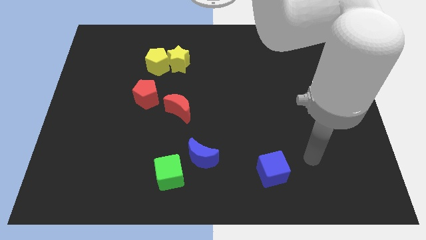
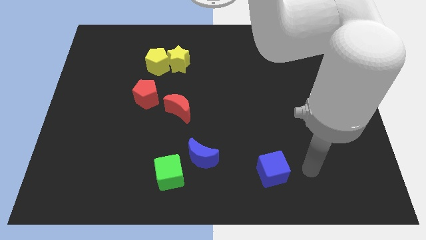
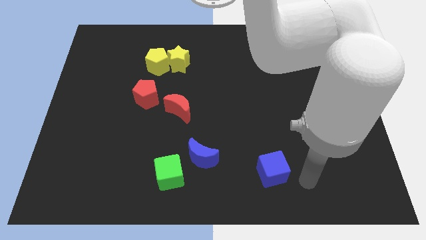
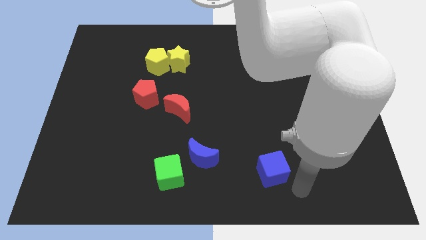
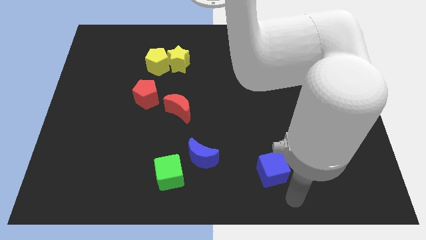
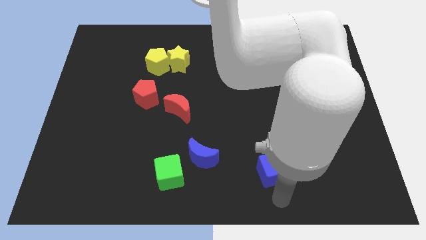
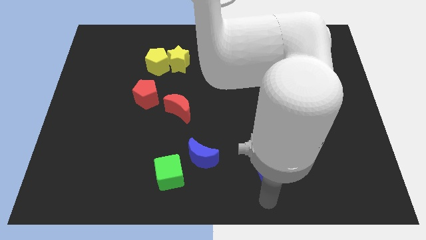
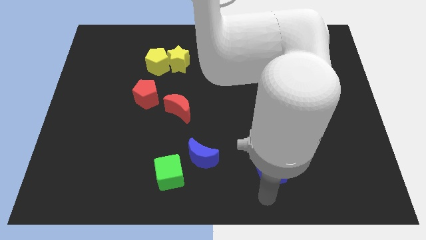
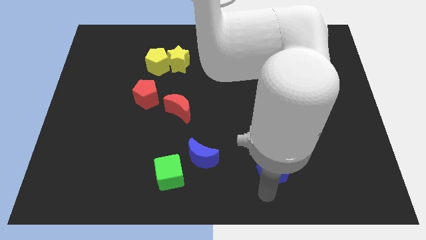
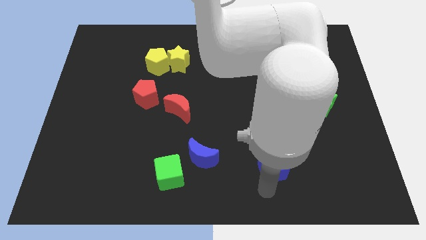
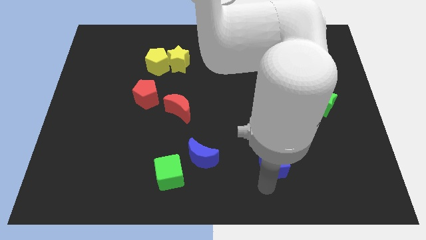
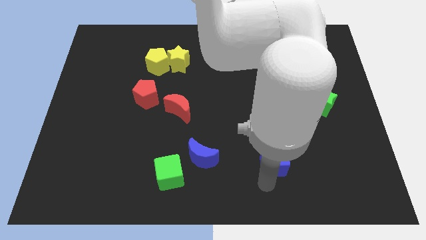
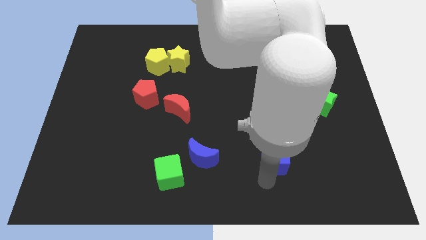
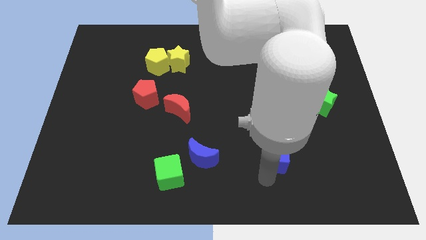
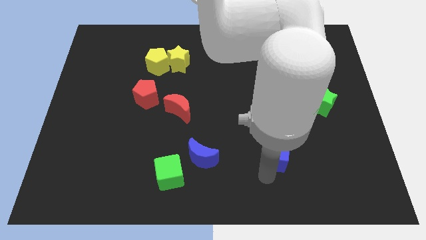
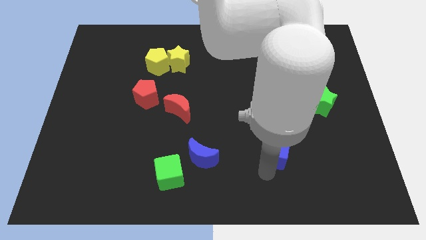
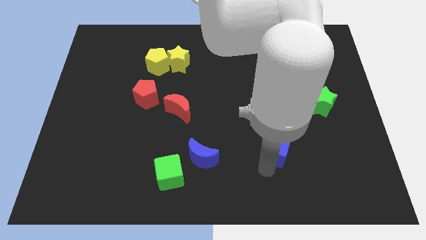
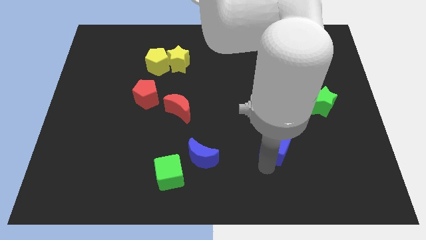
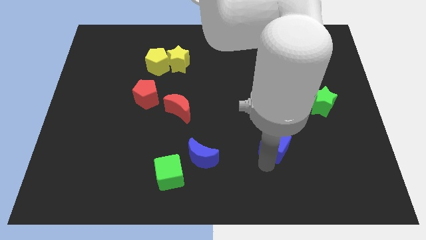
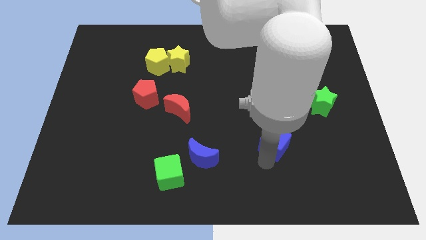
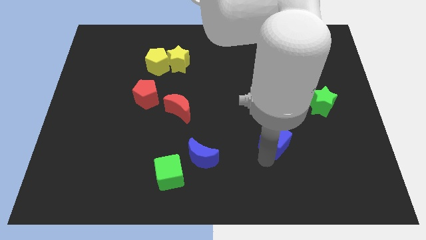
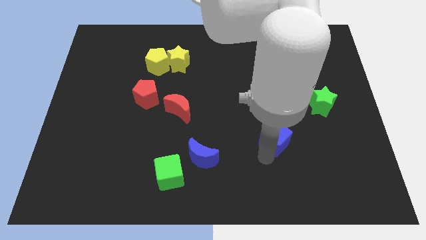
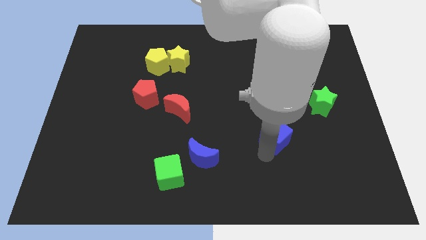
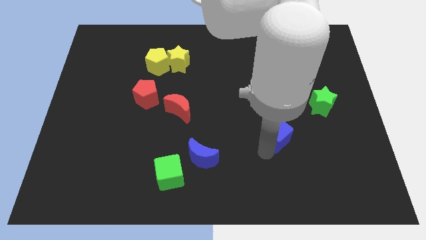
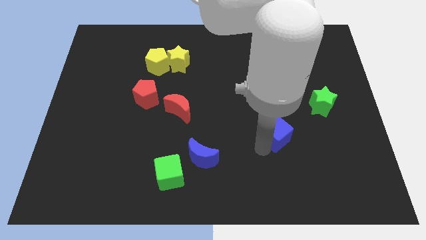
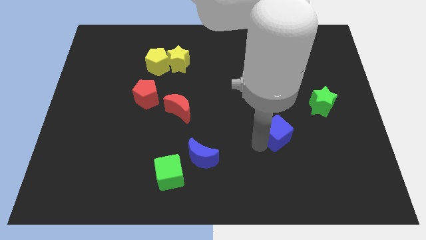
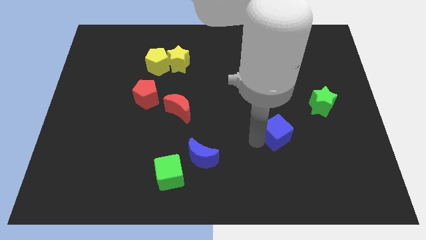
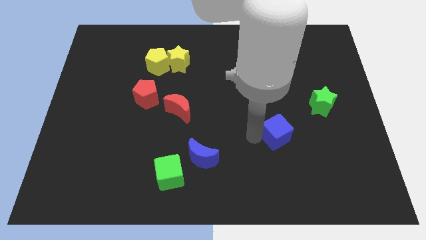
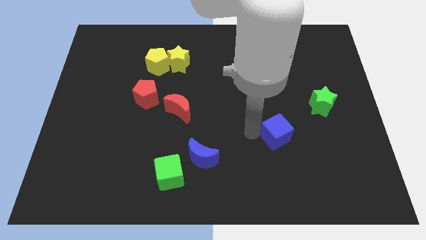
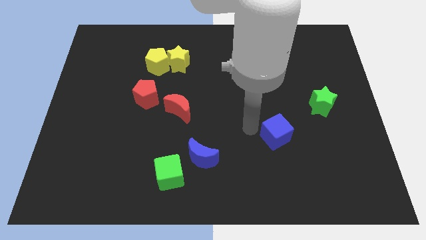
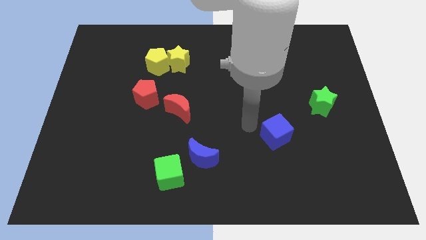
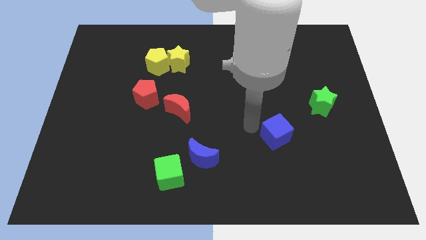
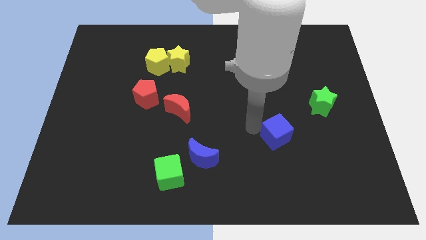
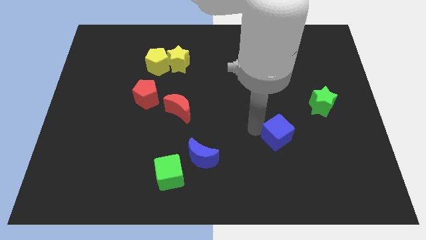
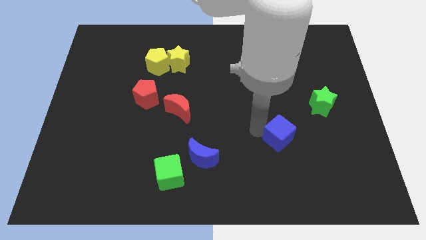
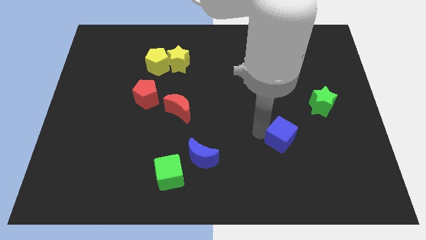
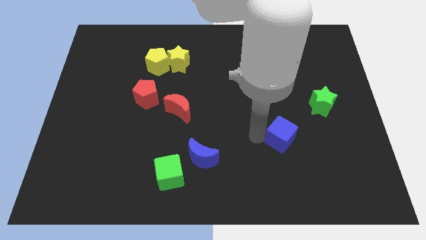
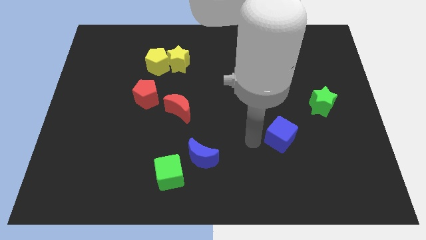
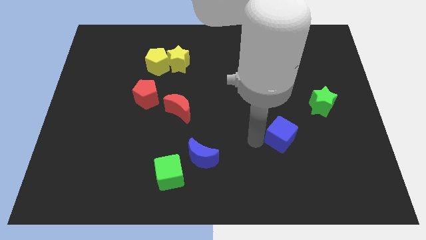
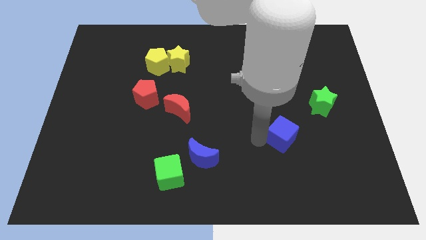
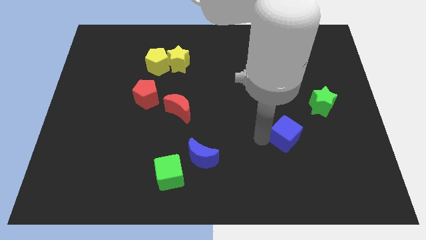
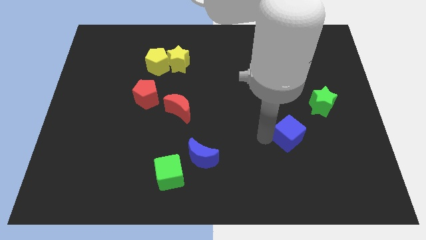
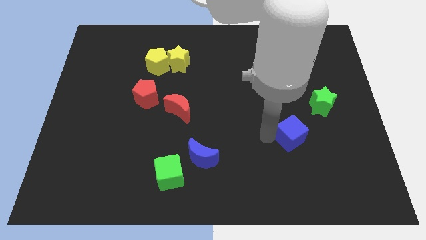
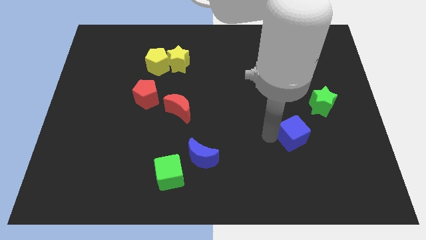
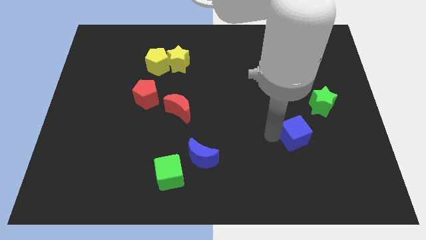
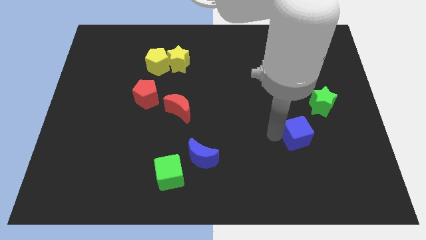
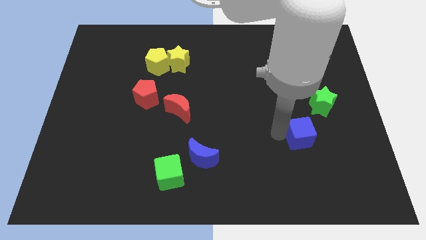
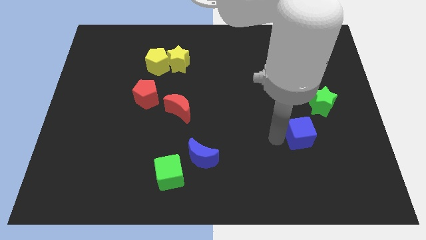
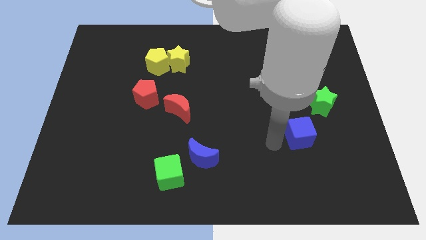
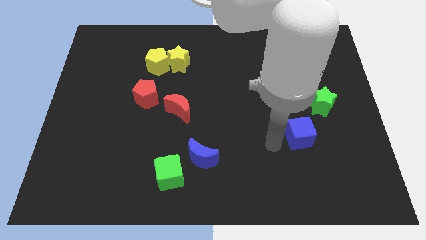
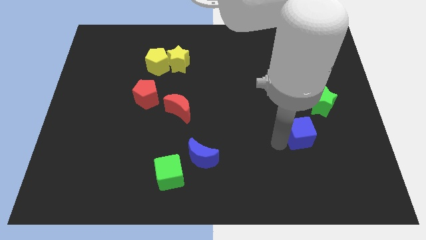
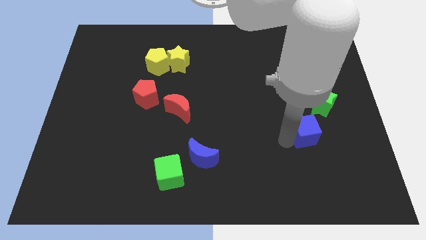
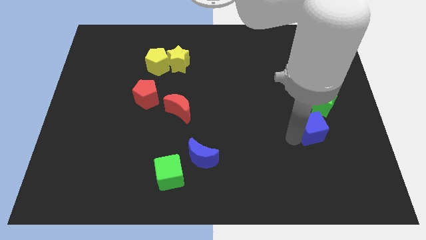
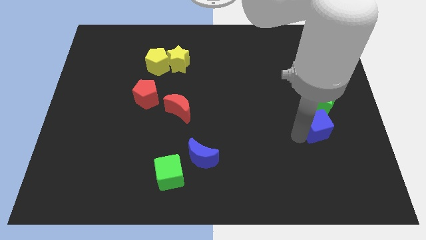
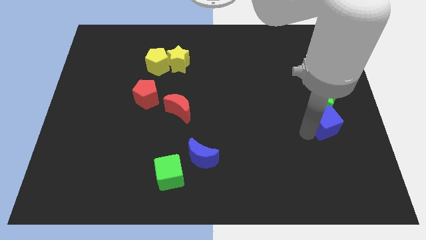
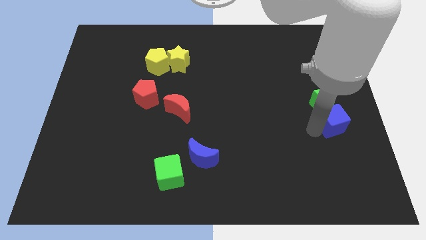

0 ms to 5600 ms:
slide the blue cube to the right side

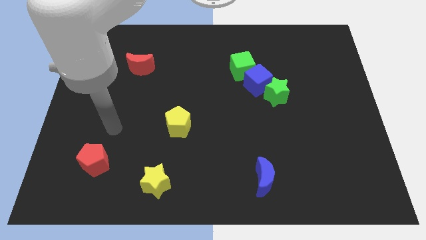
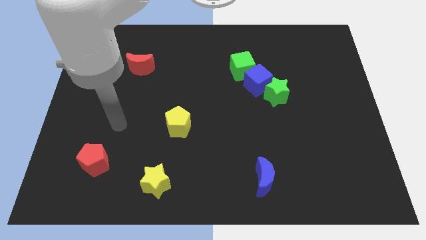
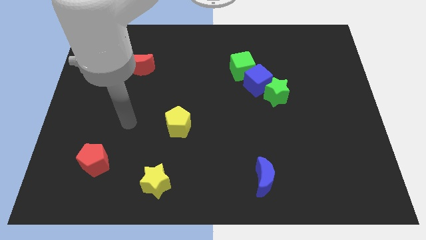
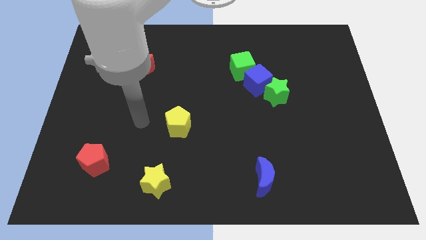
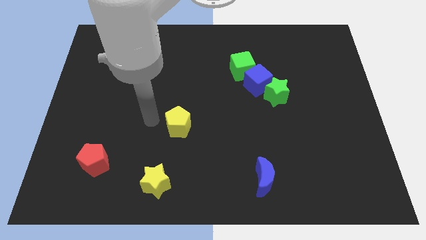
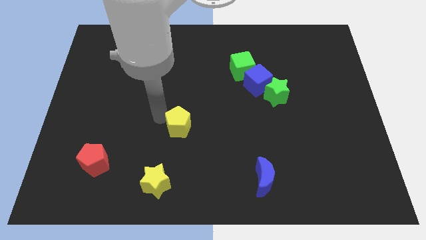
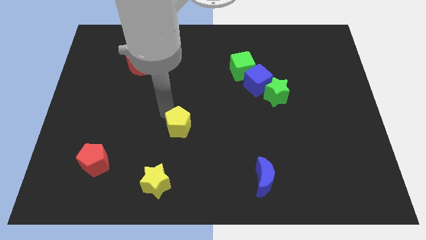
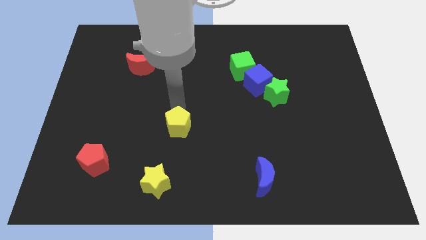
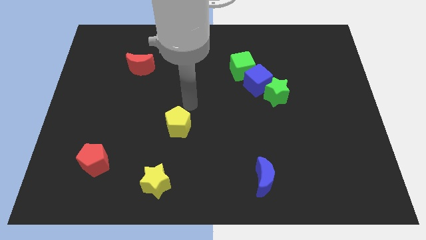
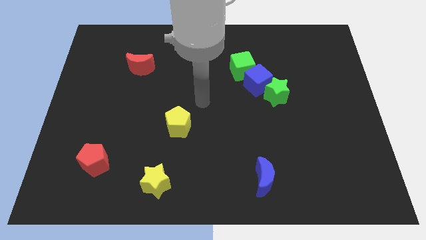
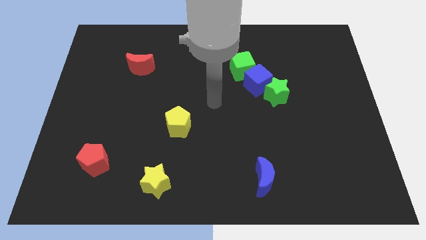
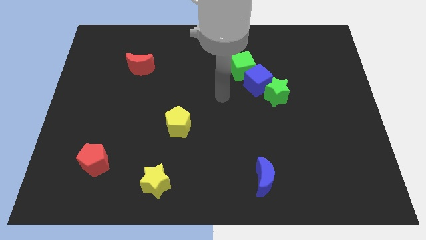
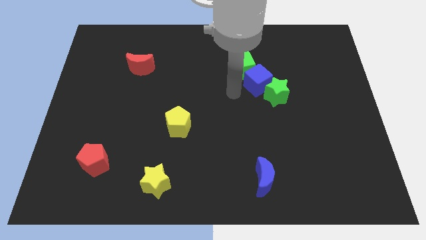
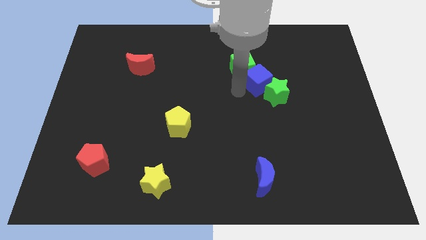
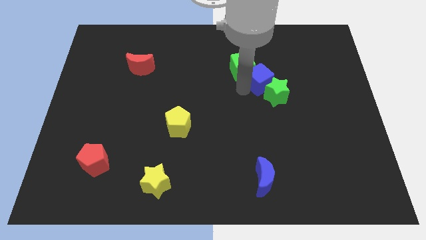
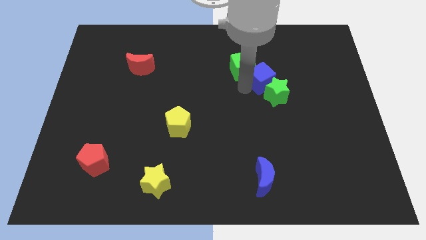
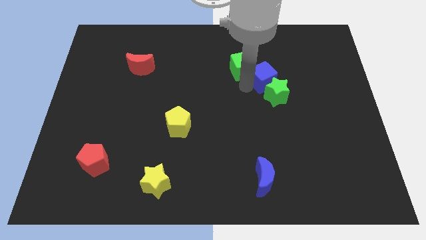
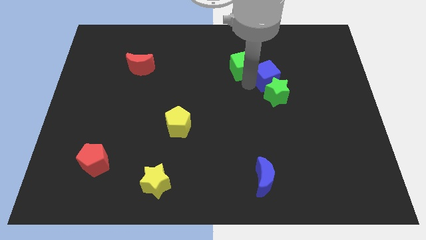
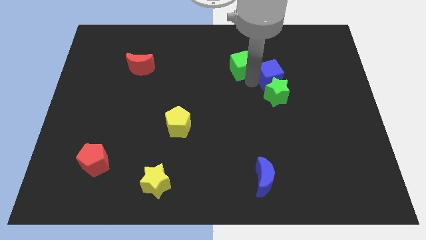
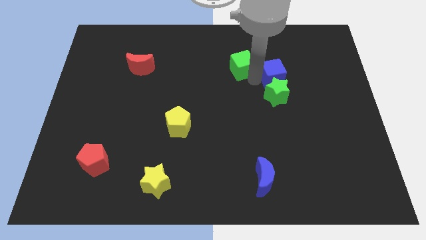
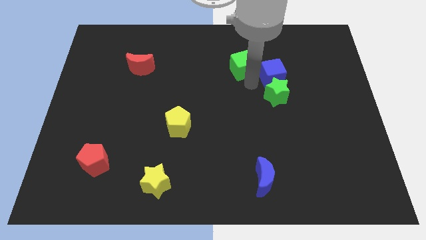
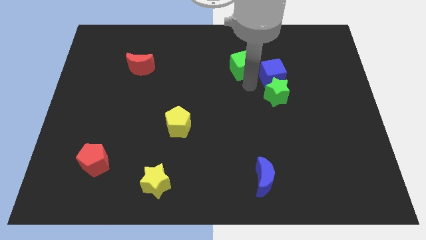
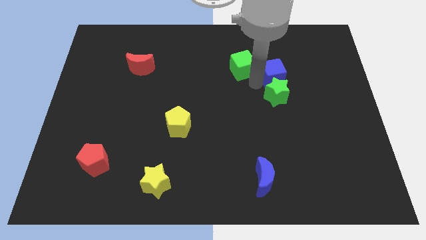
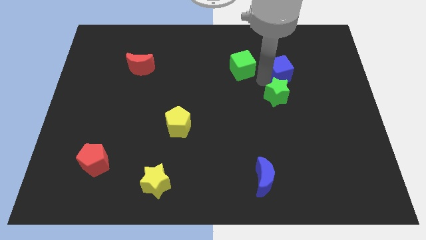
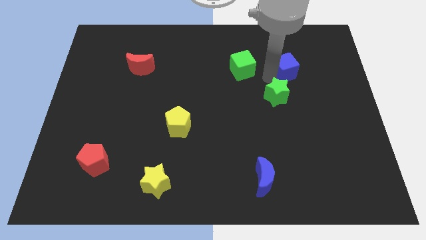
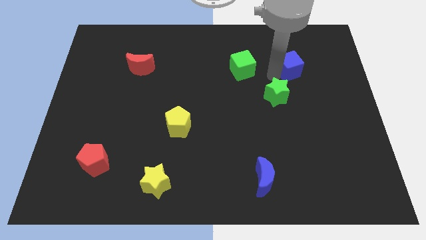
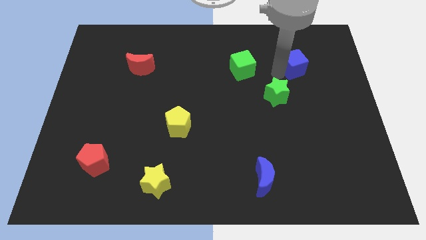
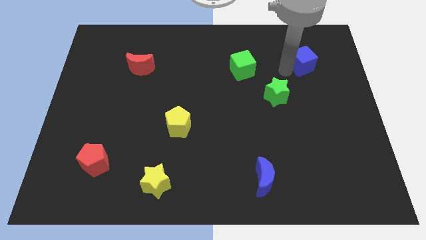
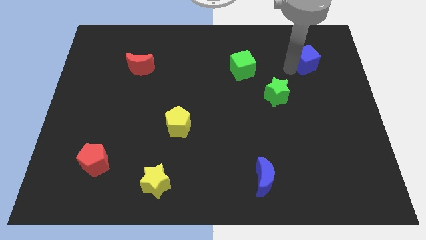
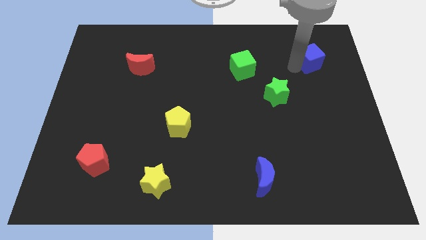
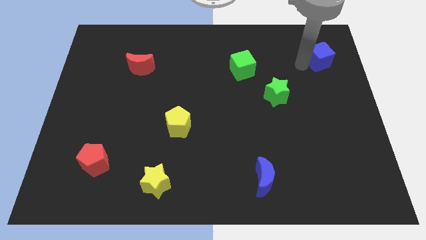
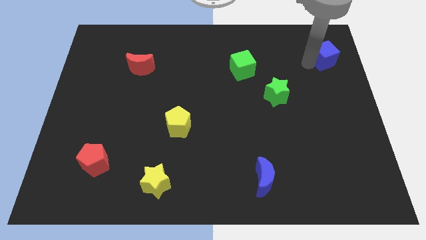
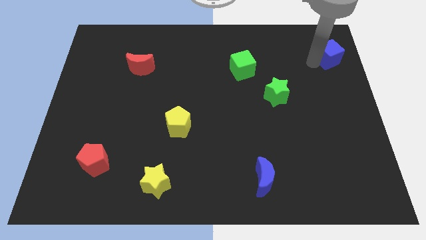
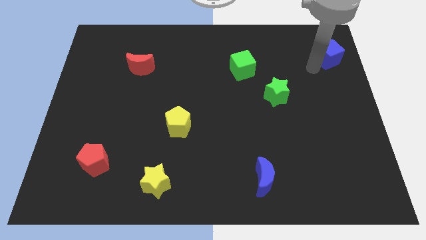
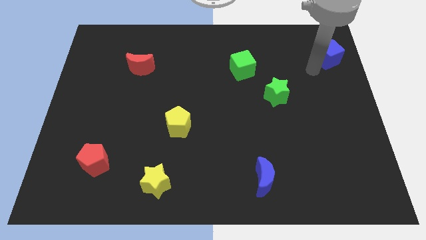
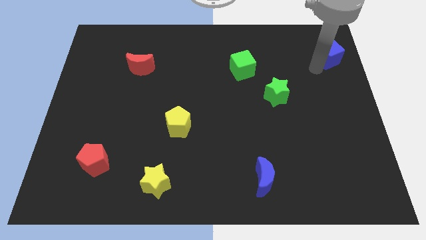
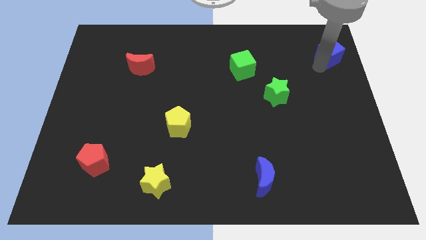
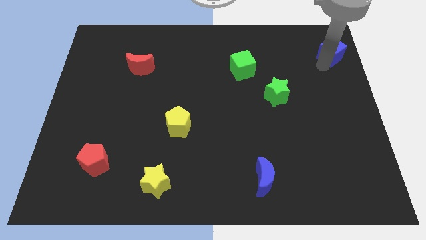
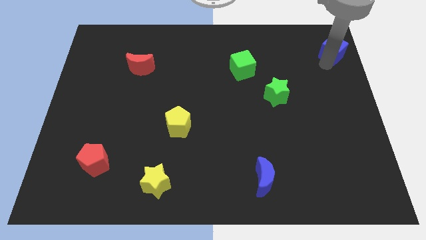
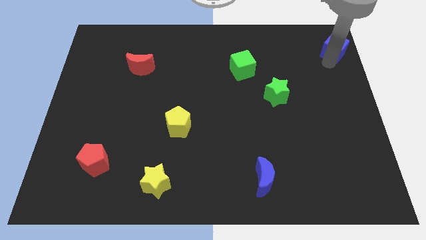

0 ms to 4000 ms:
put the blue cube to the upper right corner
